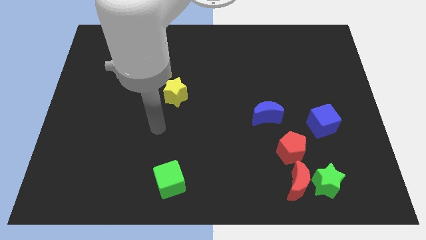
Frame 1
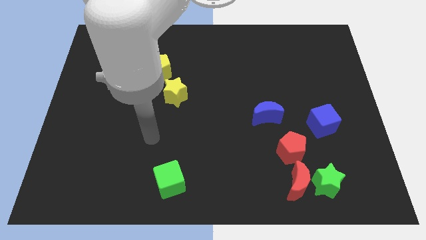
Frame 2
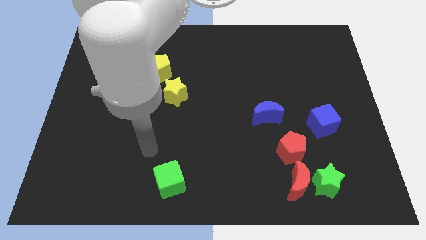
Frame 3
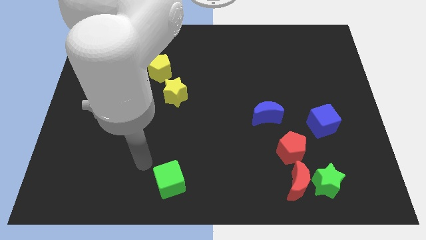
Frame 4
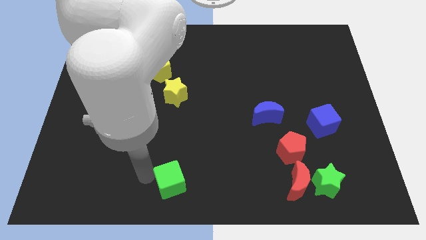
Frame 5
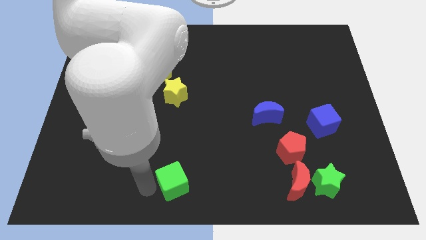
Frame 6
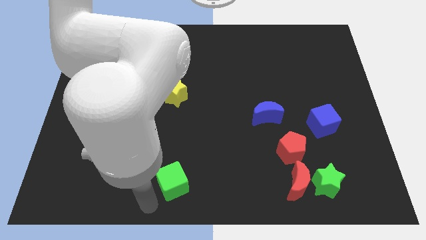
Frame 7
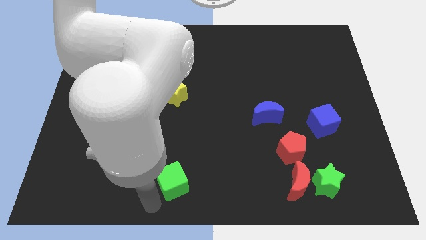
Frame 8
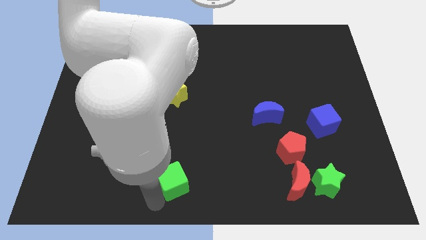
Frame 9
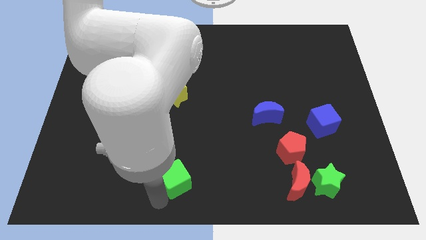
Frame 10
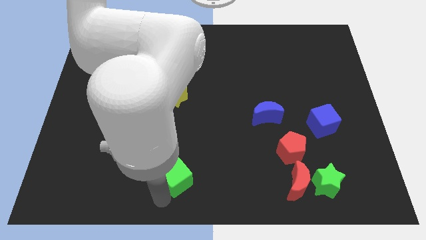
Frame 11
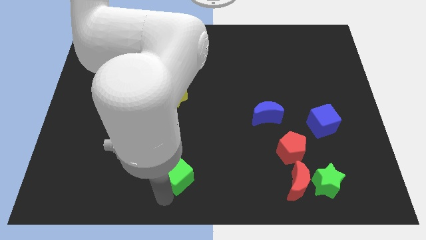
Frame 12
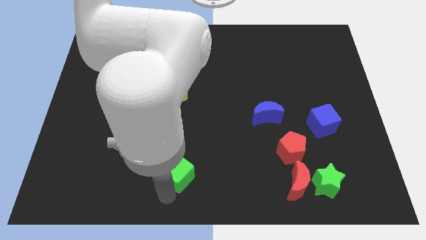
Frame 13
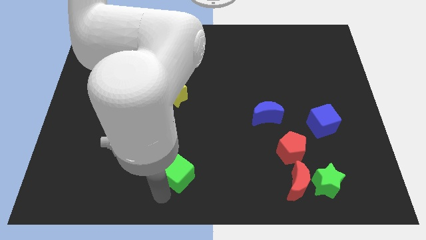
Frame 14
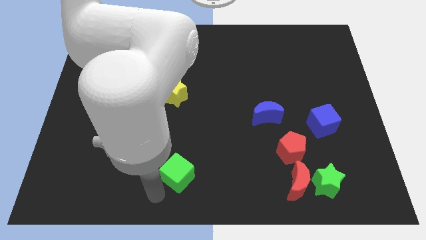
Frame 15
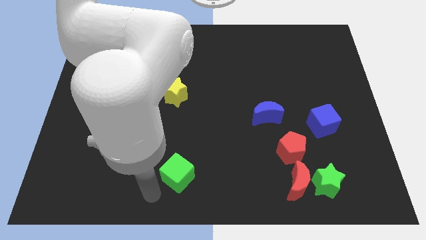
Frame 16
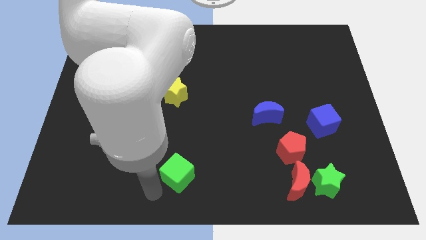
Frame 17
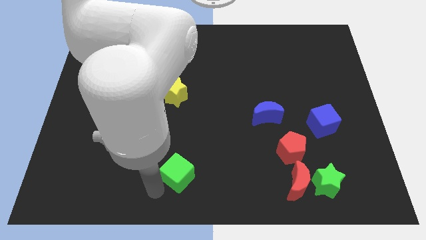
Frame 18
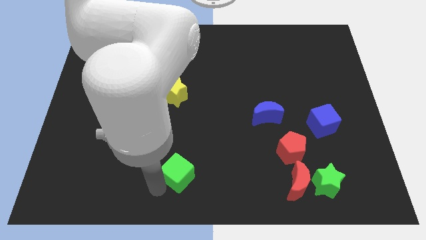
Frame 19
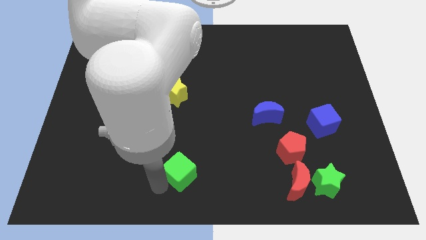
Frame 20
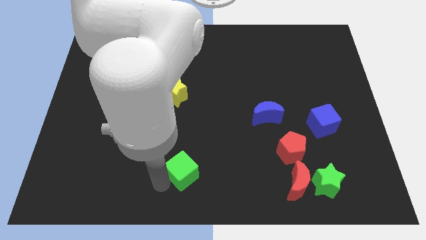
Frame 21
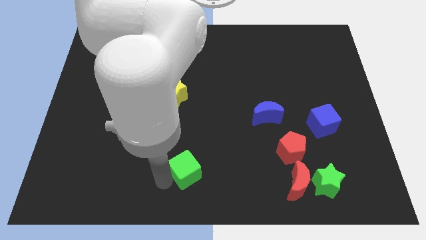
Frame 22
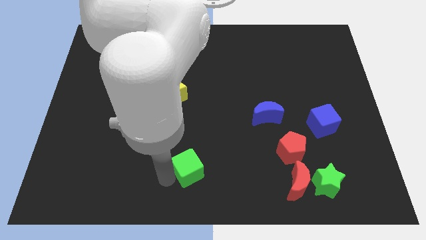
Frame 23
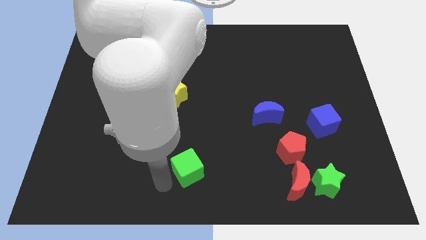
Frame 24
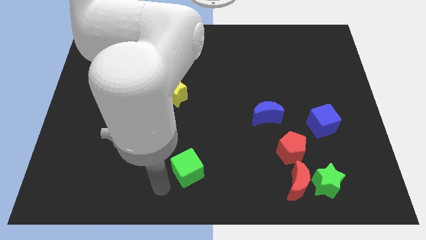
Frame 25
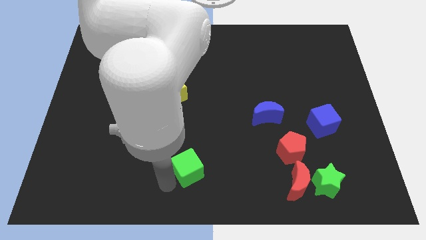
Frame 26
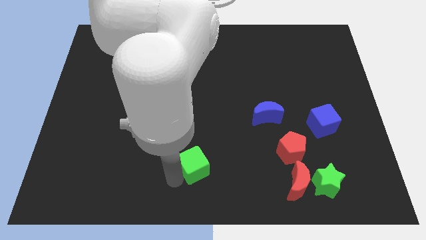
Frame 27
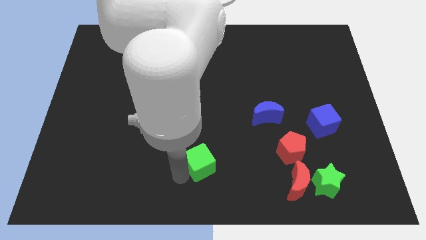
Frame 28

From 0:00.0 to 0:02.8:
move the green cube up and right slightly

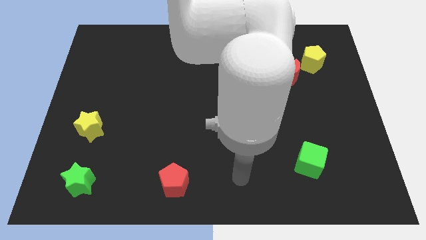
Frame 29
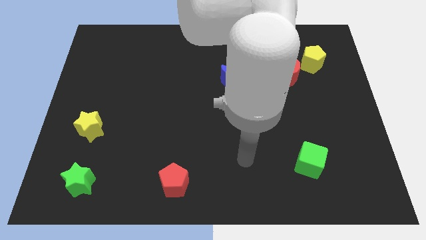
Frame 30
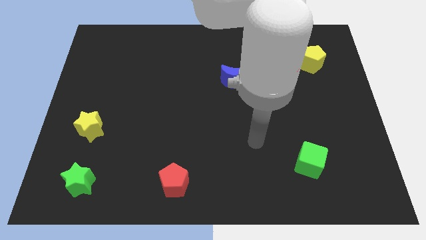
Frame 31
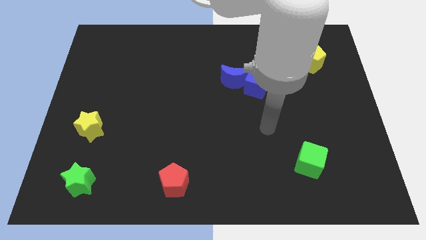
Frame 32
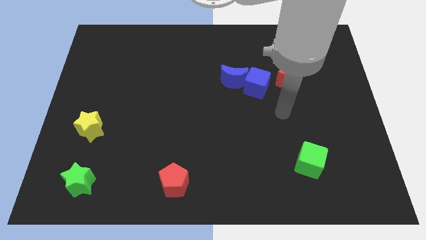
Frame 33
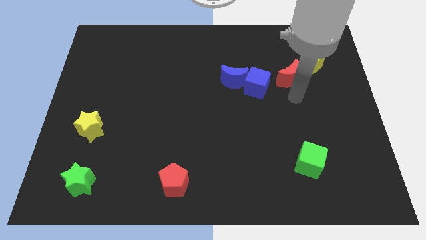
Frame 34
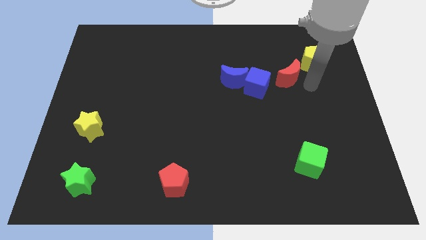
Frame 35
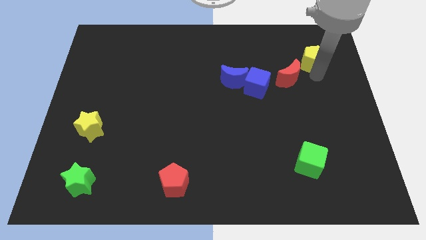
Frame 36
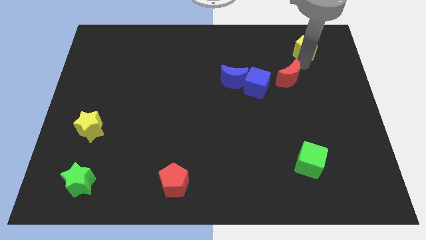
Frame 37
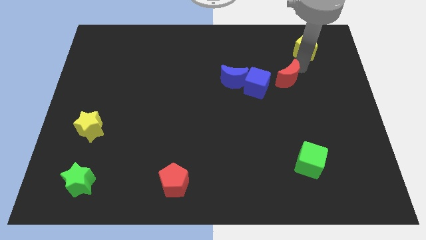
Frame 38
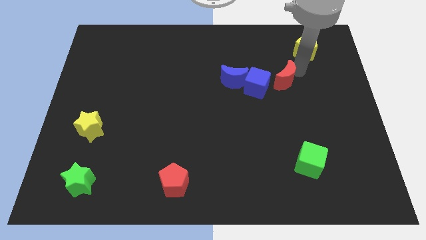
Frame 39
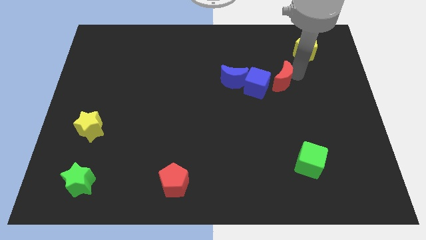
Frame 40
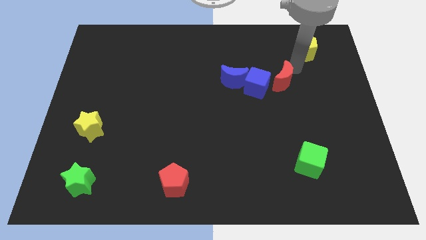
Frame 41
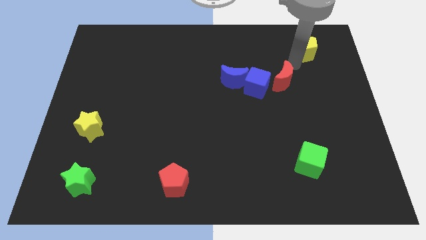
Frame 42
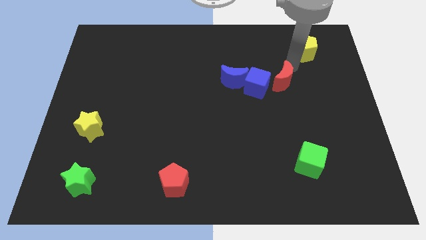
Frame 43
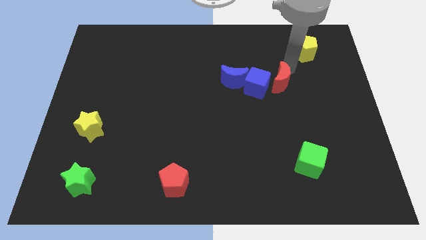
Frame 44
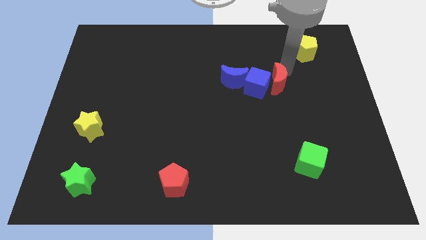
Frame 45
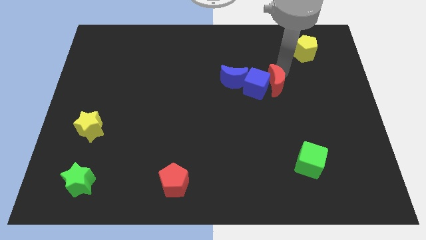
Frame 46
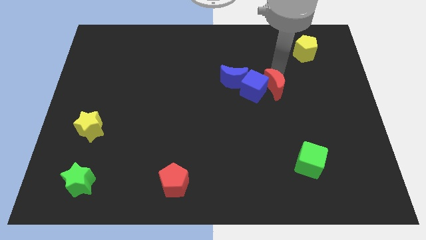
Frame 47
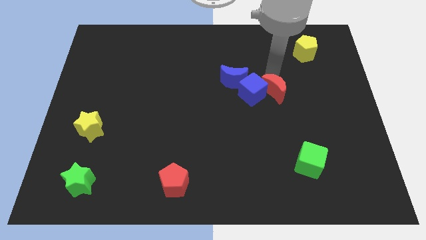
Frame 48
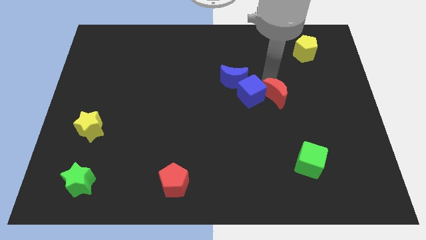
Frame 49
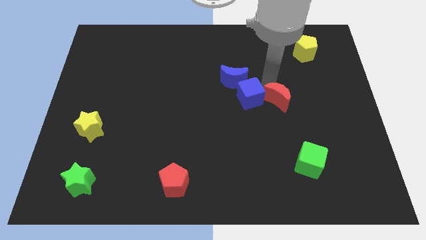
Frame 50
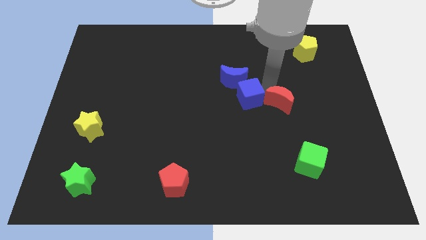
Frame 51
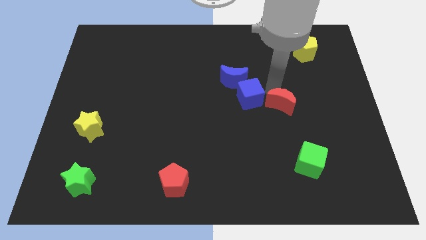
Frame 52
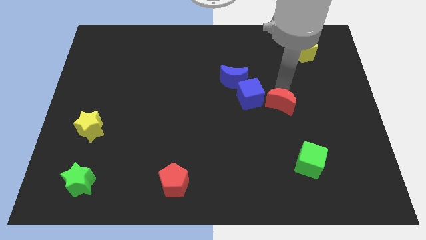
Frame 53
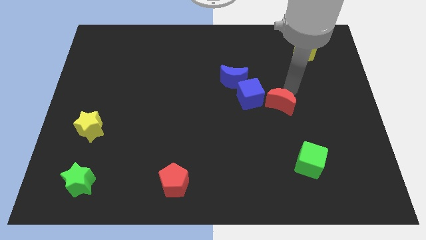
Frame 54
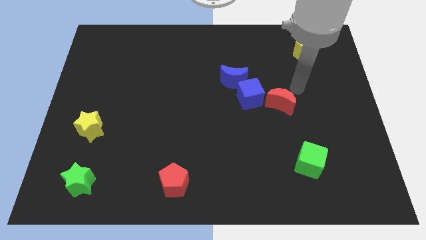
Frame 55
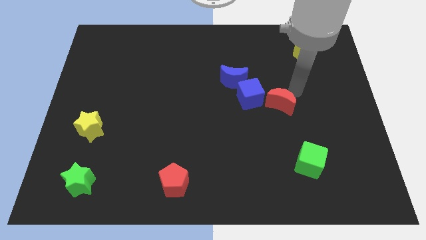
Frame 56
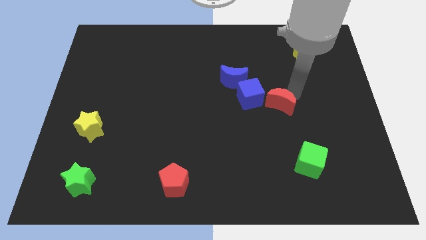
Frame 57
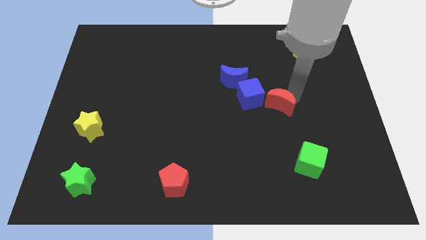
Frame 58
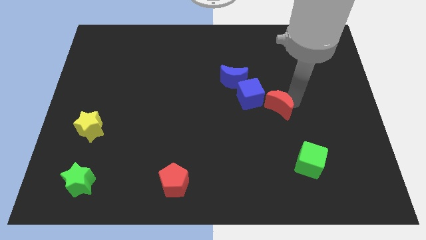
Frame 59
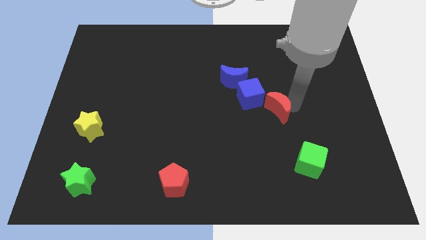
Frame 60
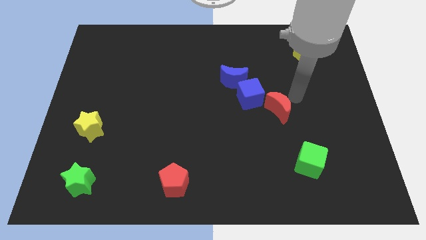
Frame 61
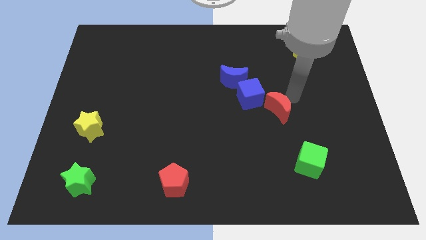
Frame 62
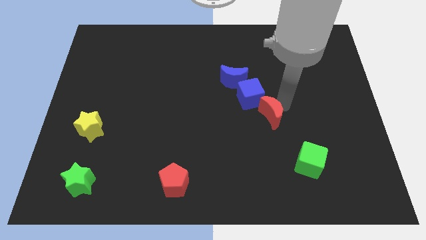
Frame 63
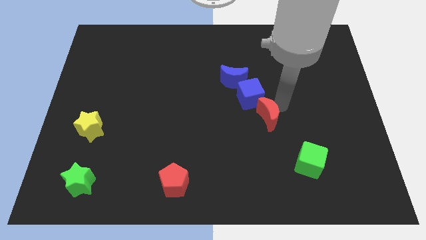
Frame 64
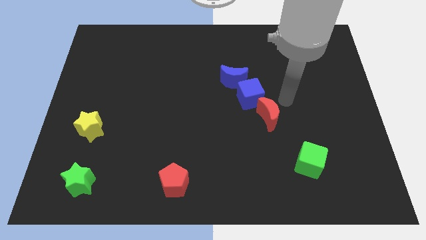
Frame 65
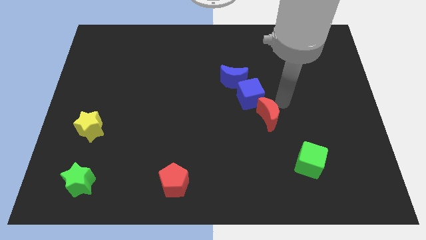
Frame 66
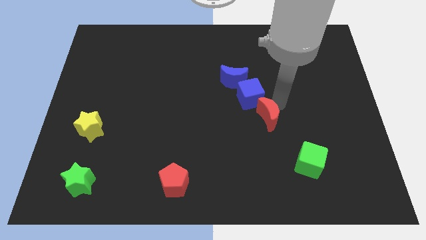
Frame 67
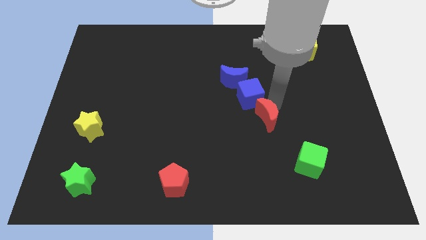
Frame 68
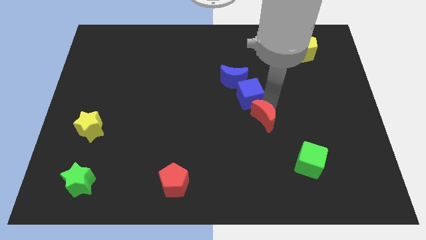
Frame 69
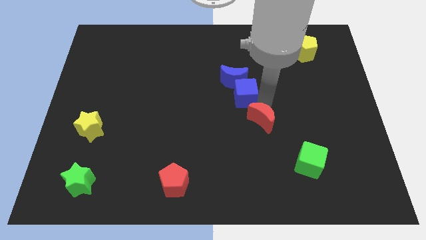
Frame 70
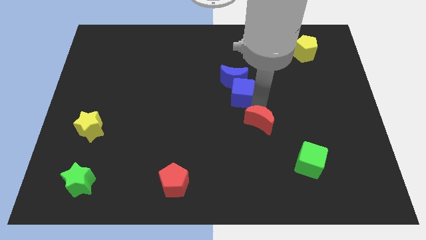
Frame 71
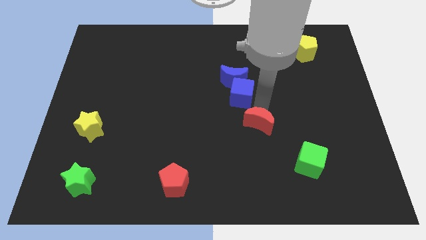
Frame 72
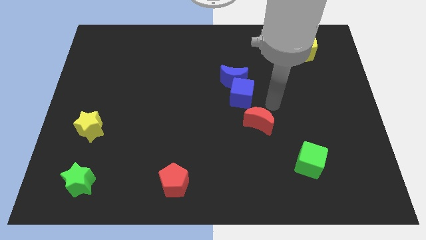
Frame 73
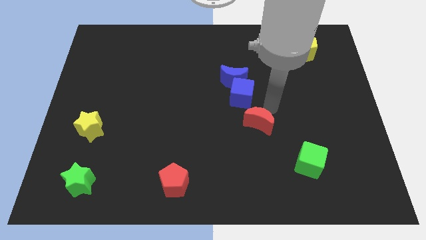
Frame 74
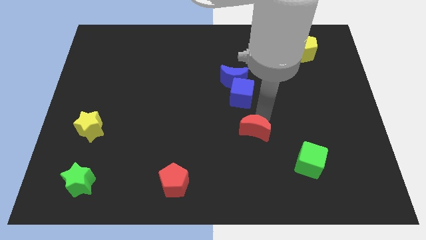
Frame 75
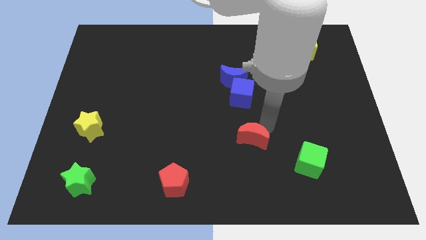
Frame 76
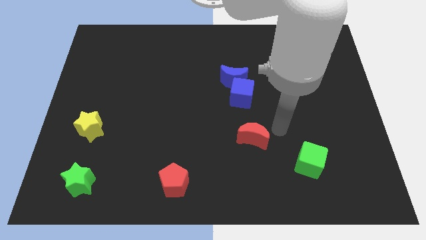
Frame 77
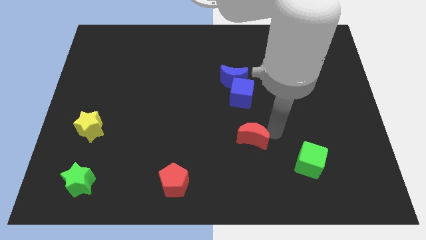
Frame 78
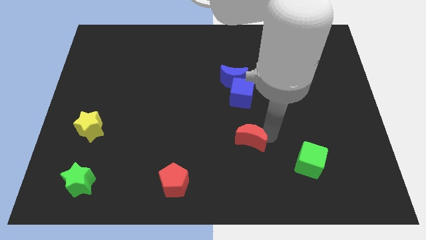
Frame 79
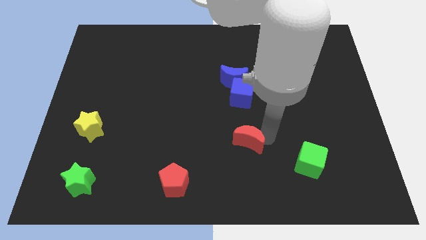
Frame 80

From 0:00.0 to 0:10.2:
slide the red moon downwards and to the left

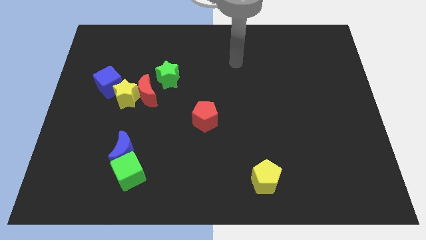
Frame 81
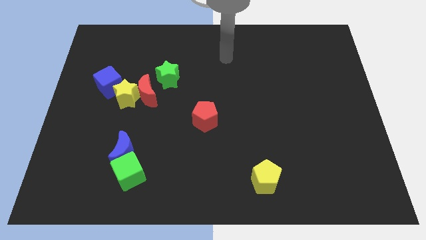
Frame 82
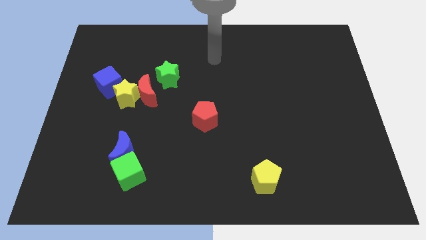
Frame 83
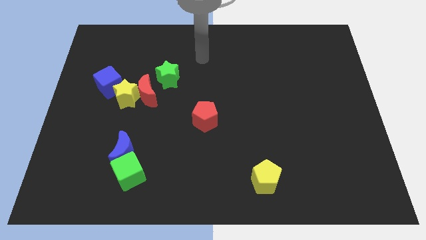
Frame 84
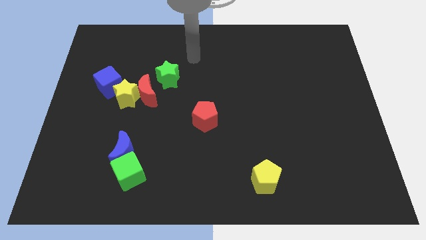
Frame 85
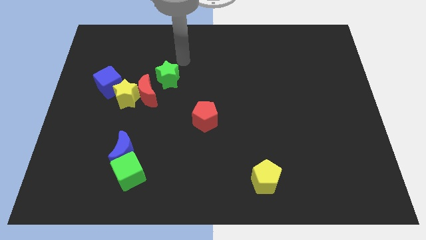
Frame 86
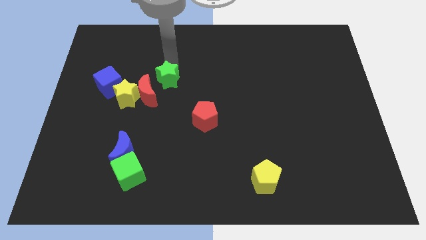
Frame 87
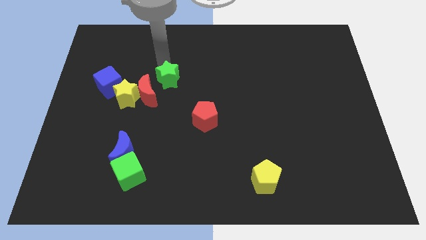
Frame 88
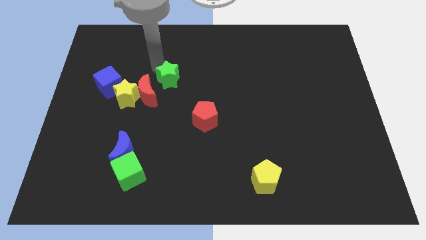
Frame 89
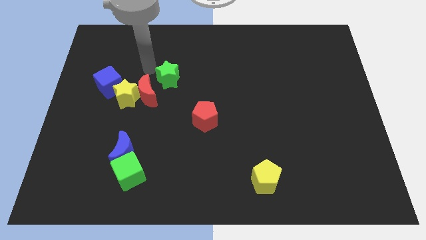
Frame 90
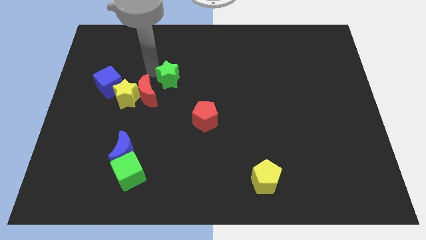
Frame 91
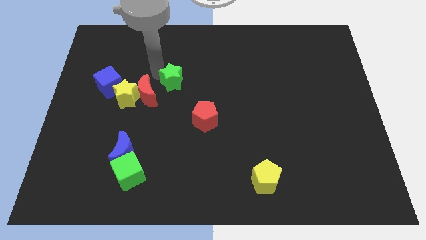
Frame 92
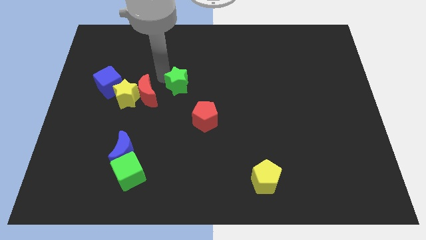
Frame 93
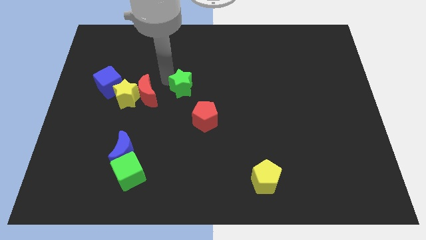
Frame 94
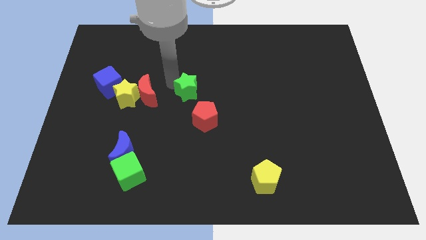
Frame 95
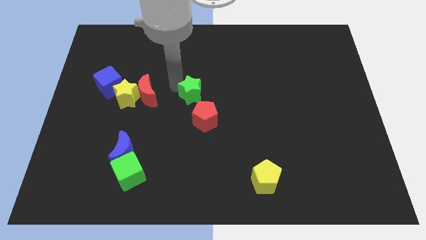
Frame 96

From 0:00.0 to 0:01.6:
move the green star a little bit downwards and right
